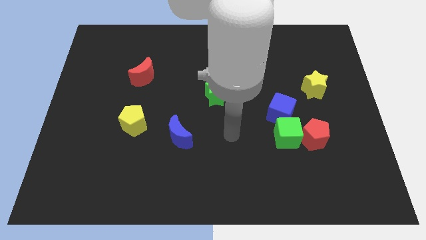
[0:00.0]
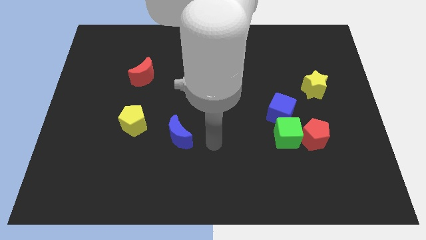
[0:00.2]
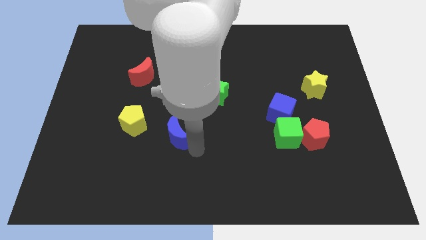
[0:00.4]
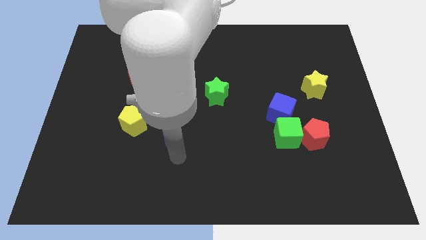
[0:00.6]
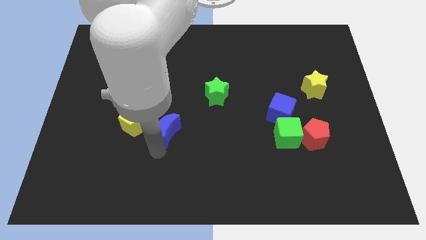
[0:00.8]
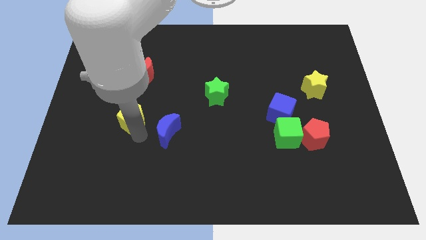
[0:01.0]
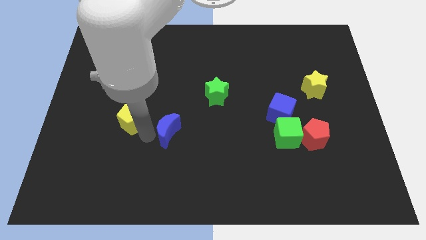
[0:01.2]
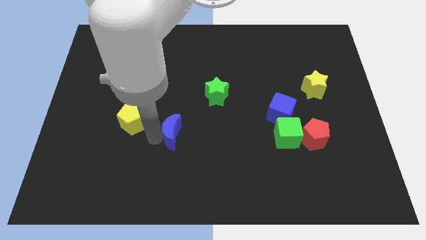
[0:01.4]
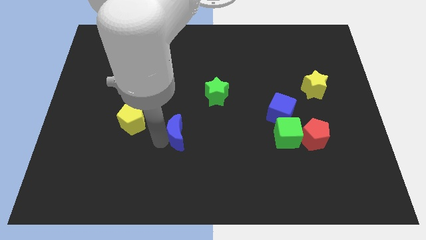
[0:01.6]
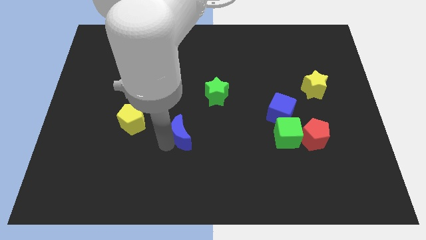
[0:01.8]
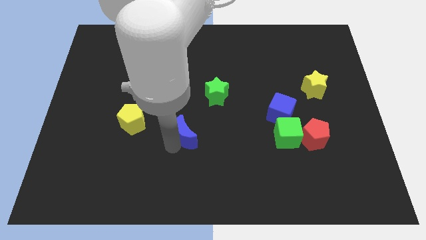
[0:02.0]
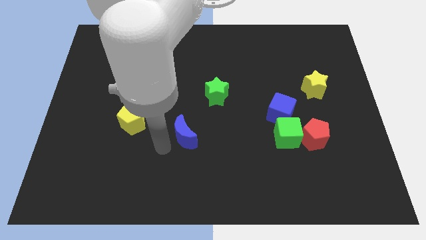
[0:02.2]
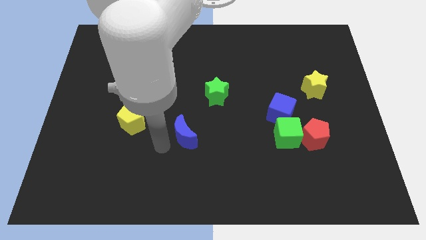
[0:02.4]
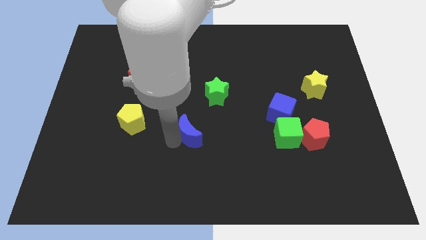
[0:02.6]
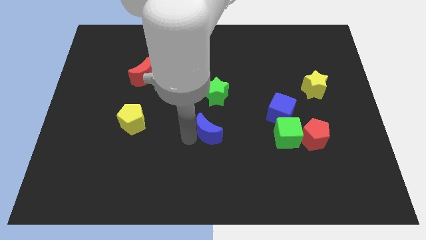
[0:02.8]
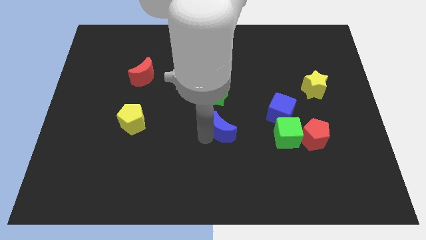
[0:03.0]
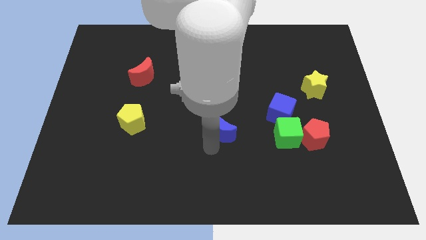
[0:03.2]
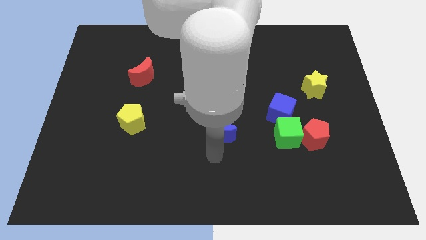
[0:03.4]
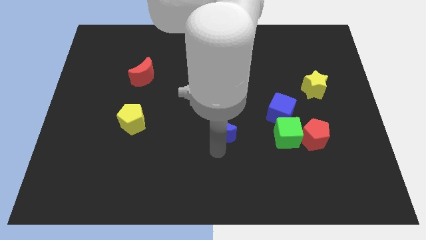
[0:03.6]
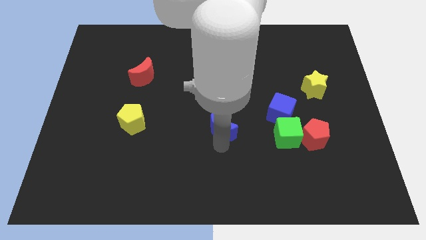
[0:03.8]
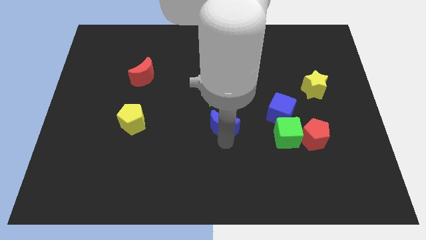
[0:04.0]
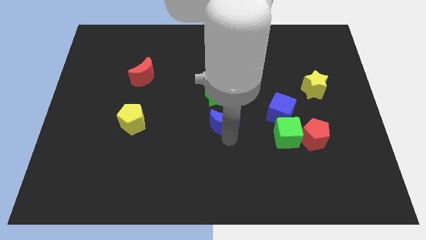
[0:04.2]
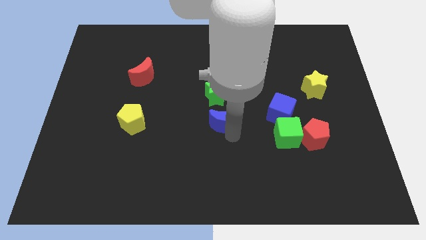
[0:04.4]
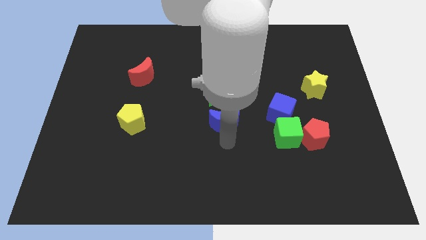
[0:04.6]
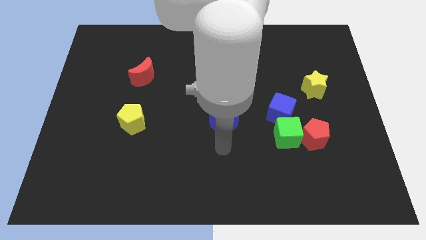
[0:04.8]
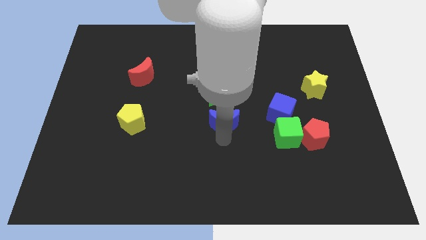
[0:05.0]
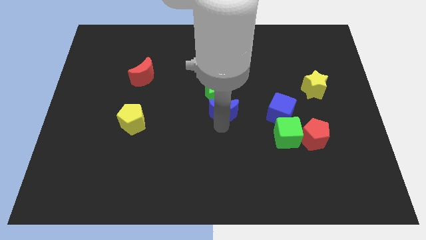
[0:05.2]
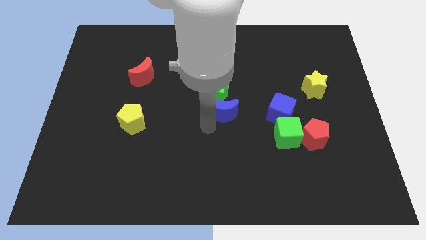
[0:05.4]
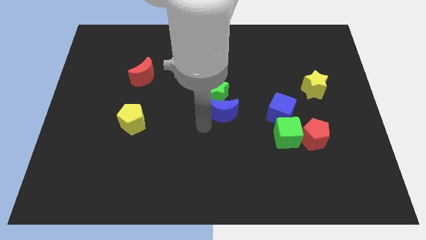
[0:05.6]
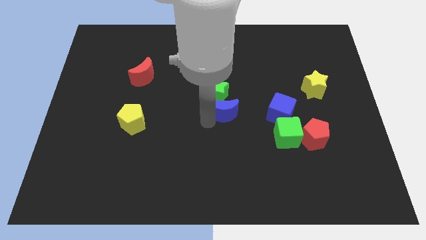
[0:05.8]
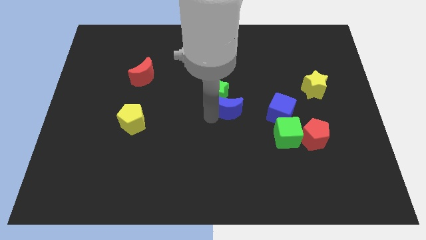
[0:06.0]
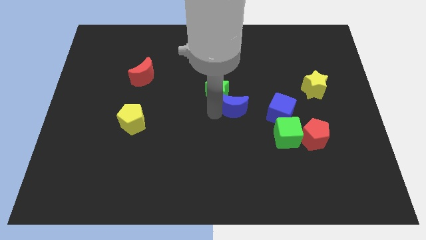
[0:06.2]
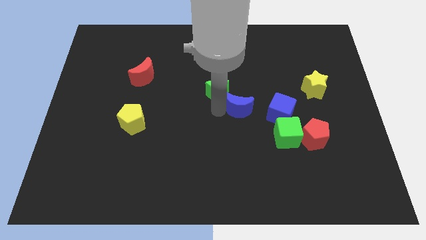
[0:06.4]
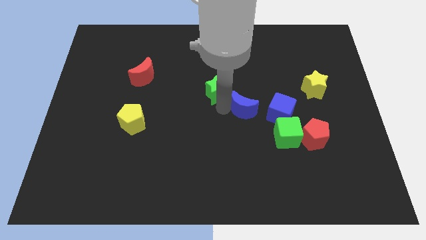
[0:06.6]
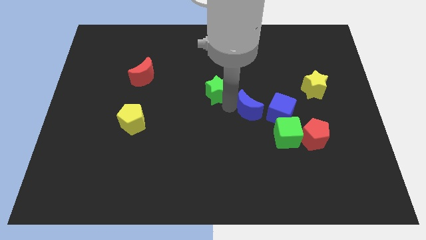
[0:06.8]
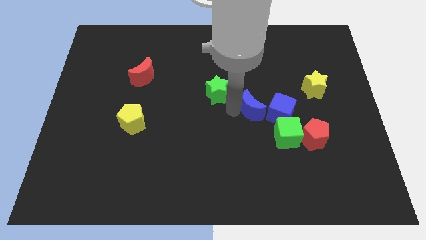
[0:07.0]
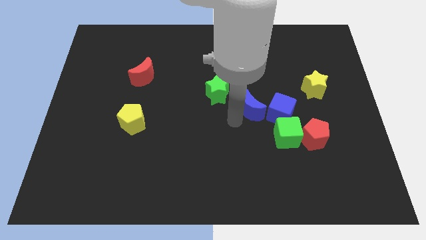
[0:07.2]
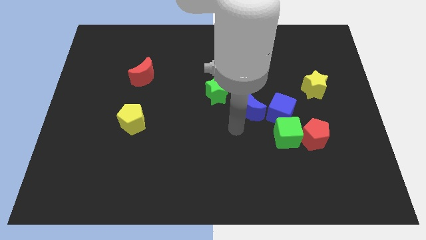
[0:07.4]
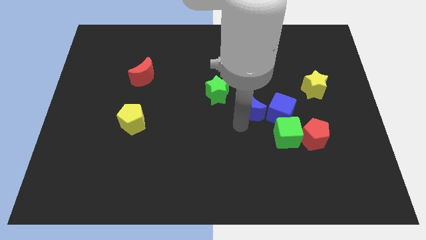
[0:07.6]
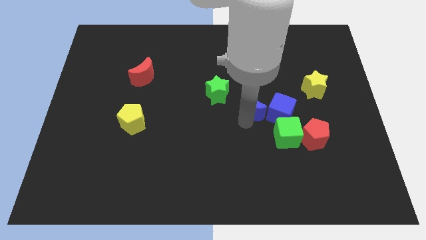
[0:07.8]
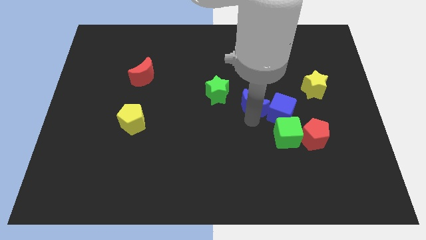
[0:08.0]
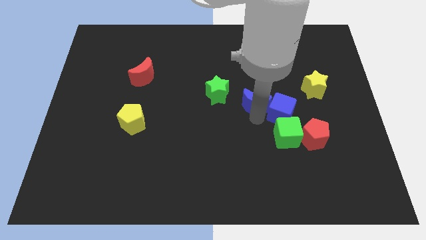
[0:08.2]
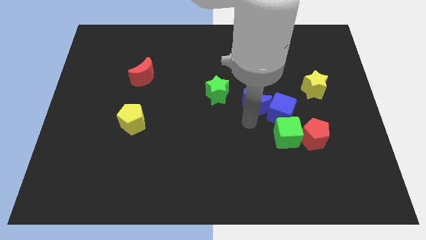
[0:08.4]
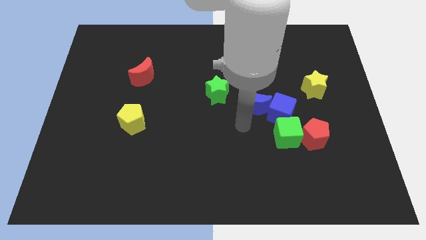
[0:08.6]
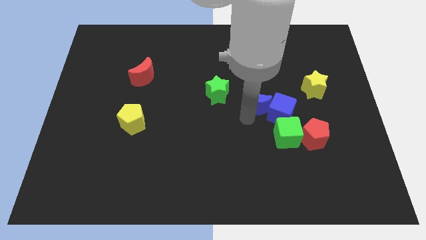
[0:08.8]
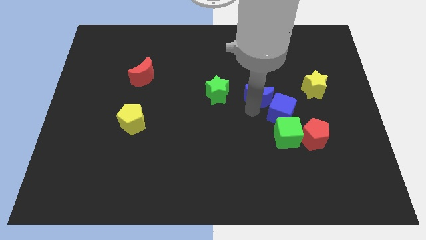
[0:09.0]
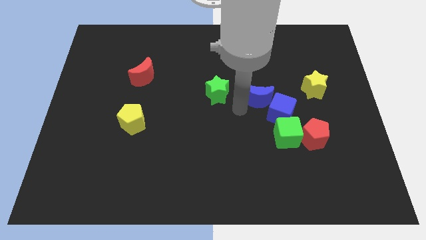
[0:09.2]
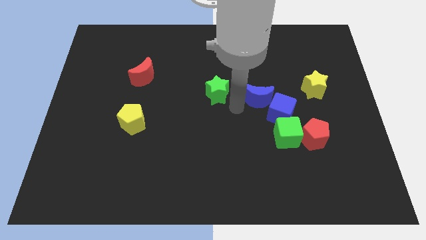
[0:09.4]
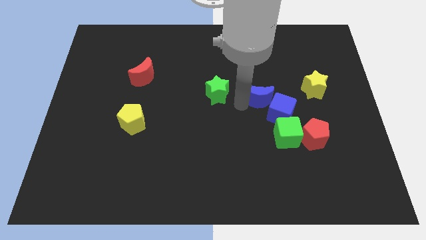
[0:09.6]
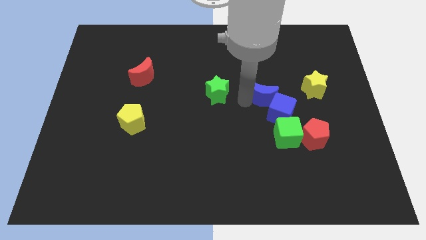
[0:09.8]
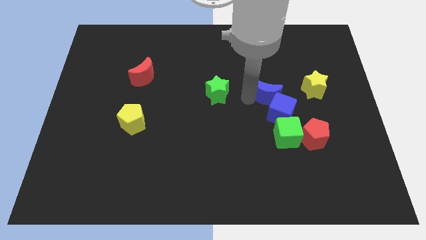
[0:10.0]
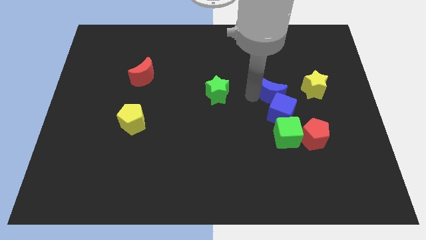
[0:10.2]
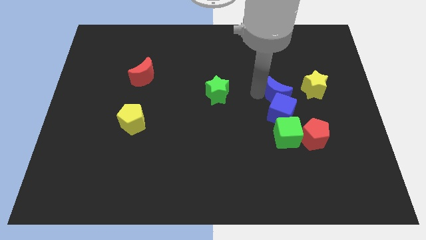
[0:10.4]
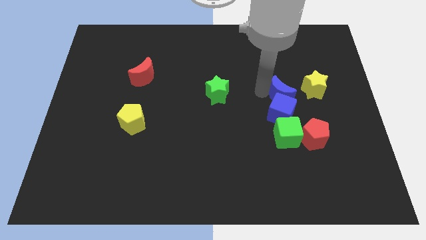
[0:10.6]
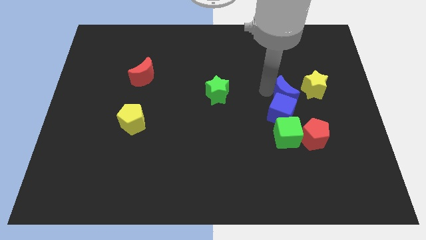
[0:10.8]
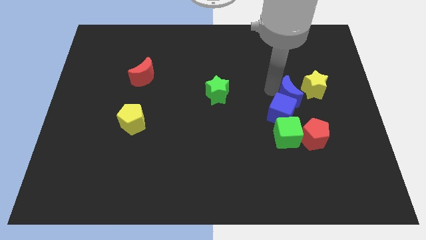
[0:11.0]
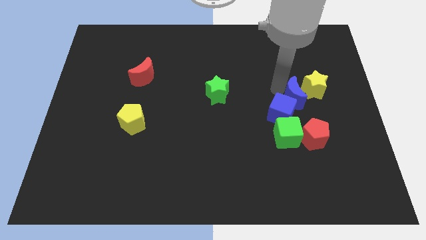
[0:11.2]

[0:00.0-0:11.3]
slide the blue moon next to the yellow star

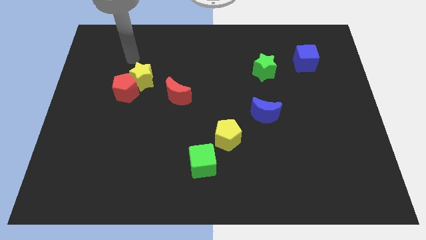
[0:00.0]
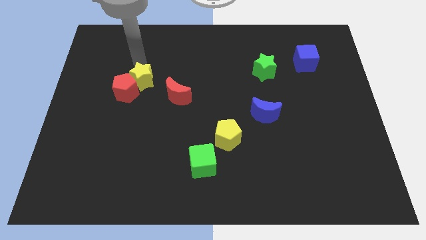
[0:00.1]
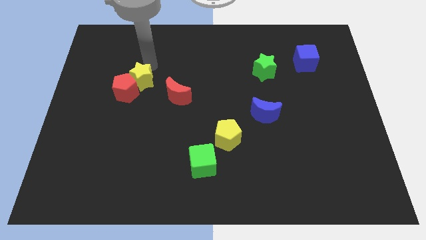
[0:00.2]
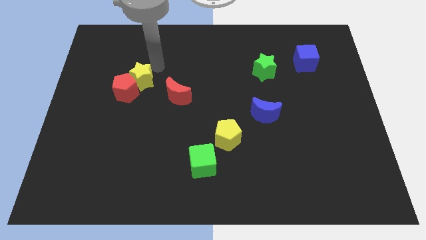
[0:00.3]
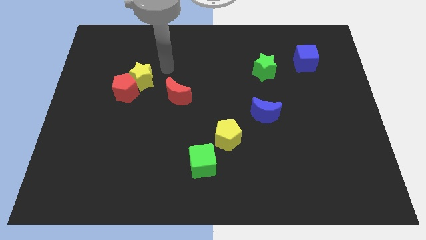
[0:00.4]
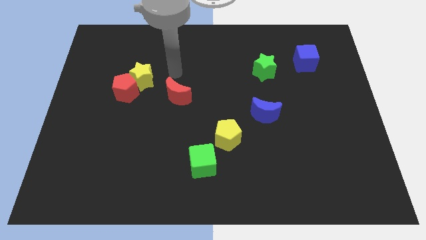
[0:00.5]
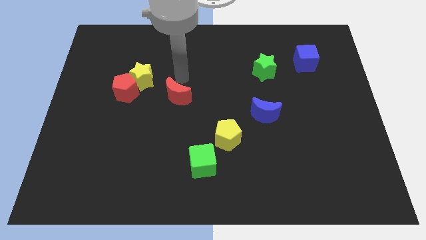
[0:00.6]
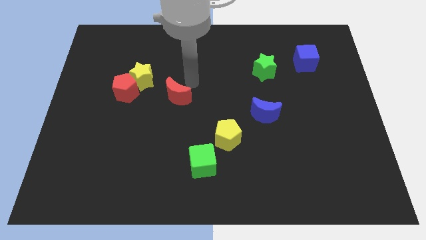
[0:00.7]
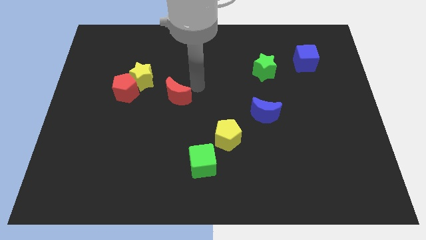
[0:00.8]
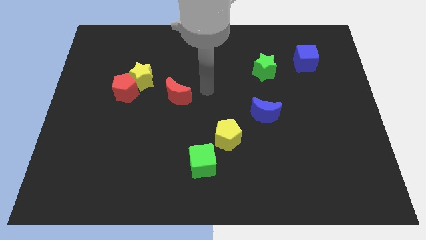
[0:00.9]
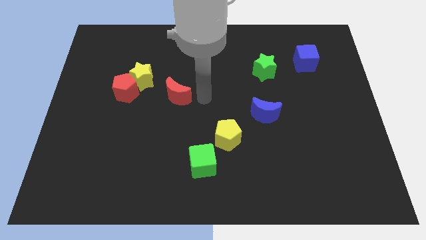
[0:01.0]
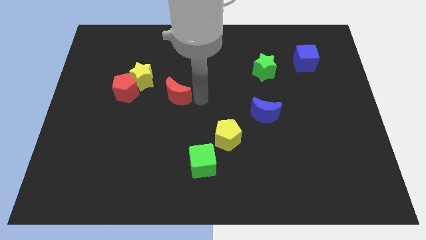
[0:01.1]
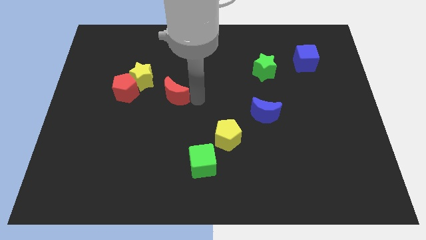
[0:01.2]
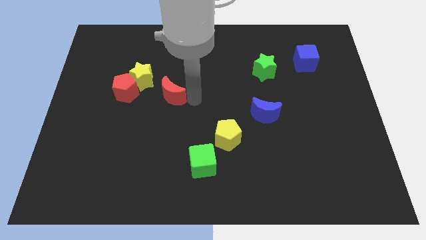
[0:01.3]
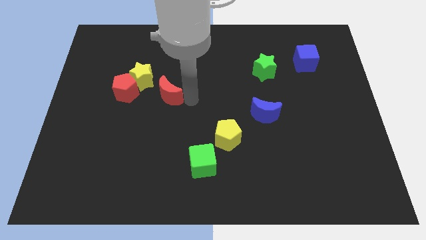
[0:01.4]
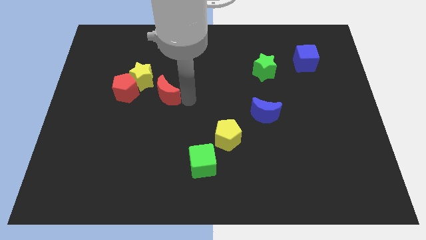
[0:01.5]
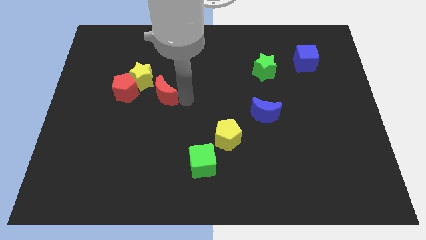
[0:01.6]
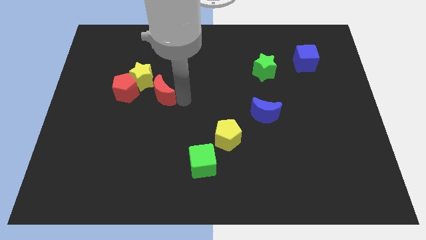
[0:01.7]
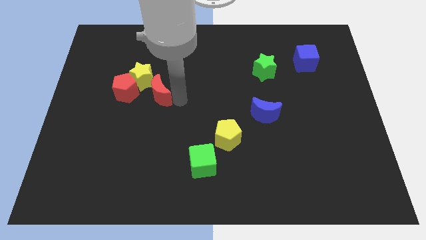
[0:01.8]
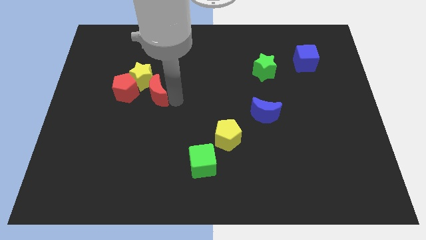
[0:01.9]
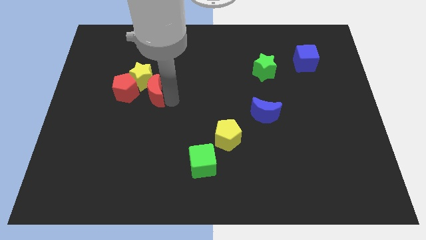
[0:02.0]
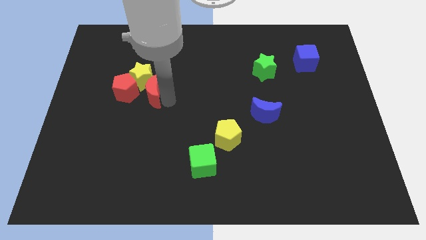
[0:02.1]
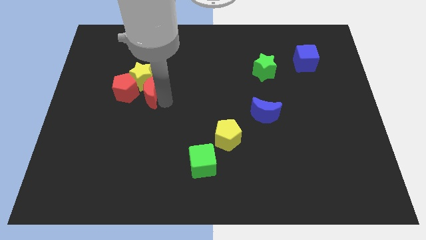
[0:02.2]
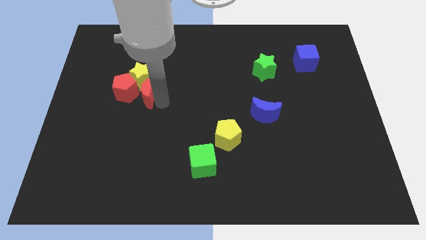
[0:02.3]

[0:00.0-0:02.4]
slide the red moon close to the red pentagon
